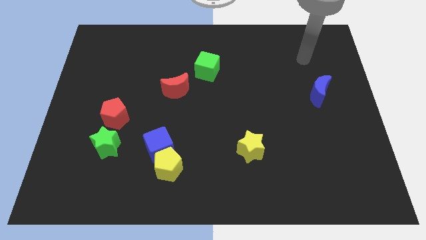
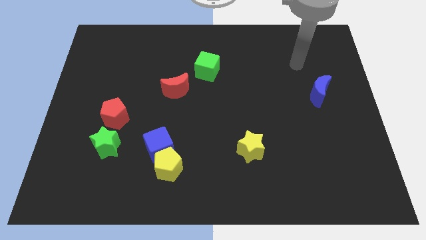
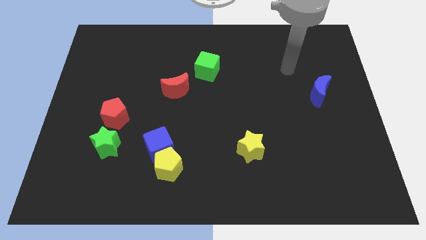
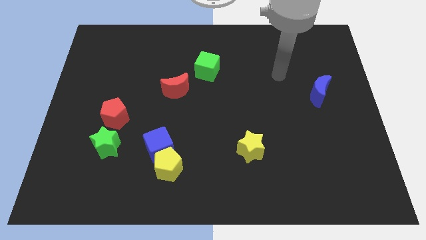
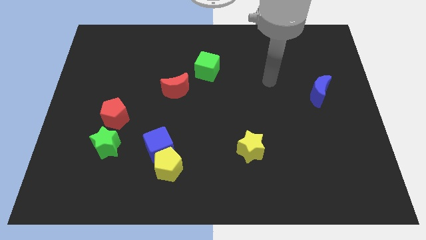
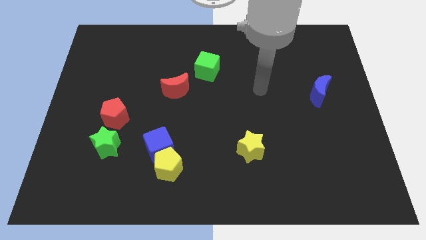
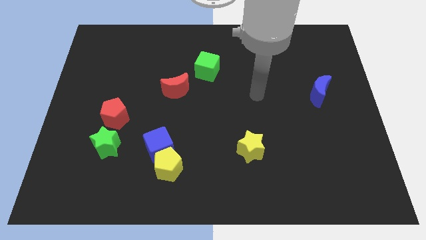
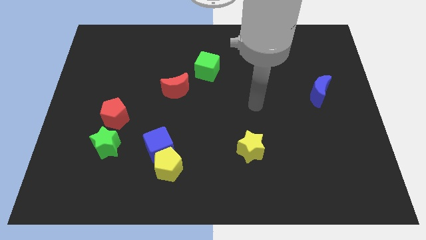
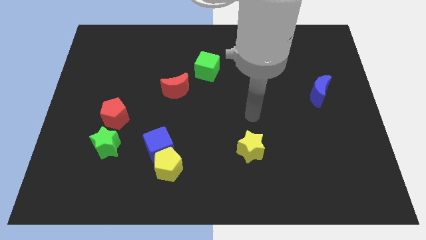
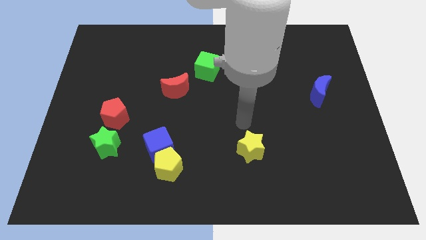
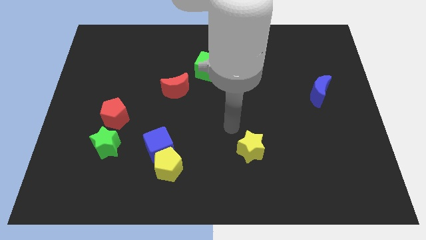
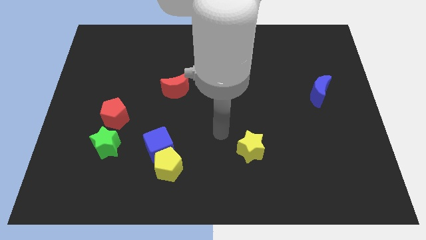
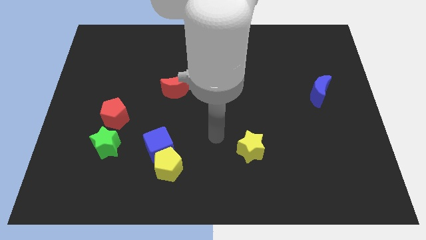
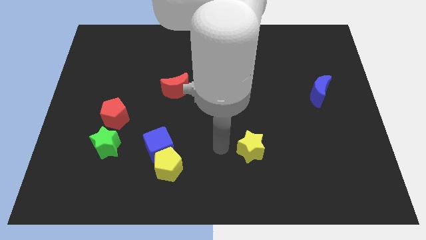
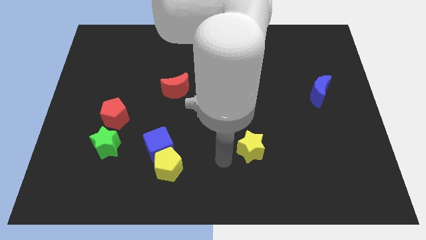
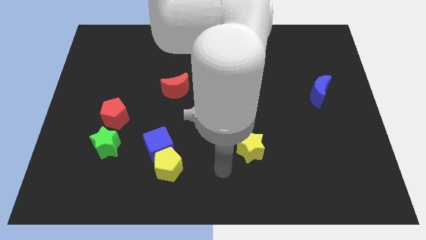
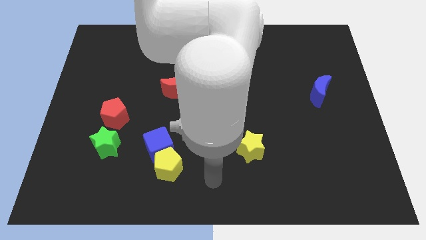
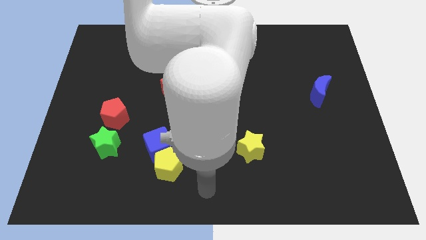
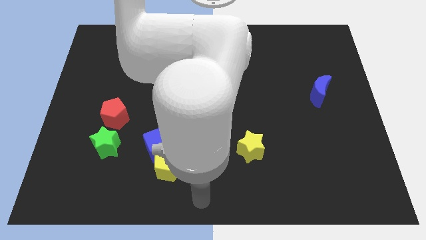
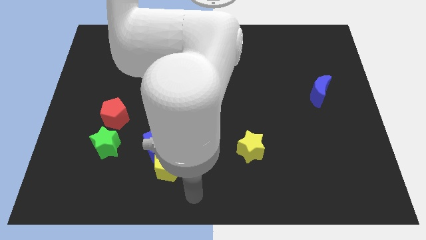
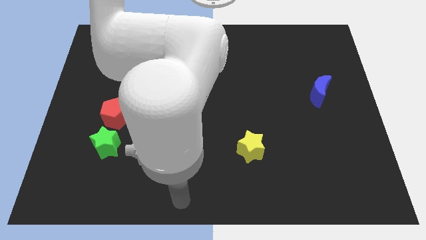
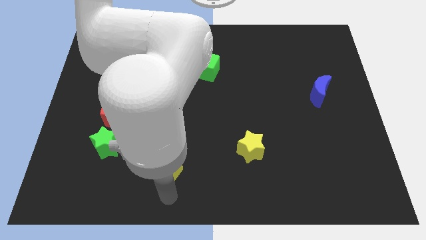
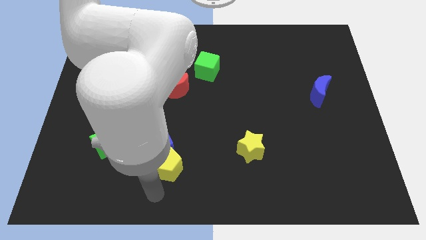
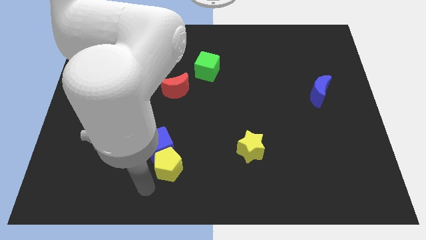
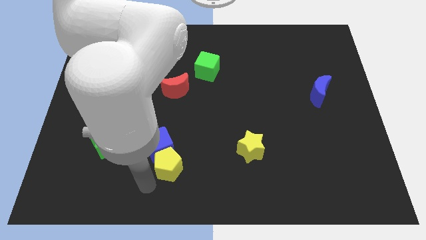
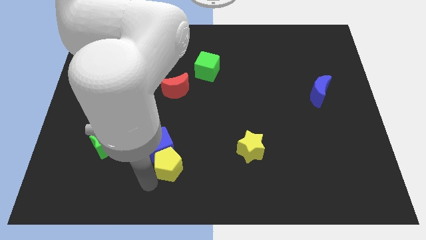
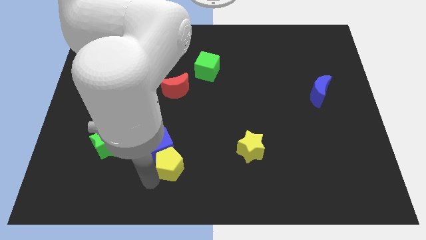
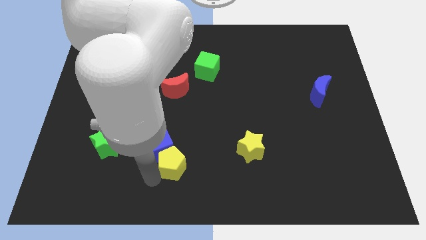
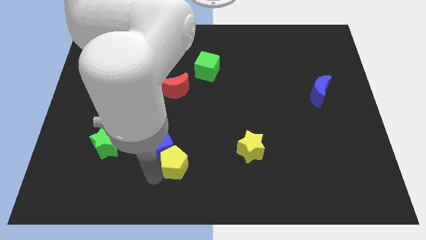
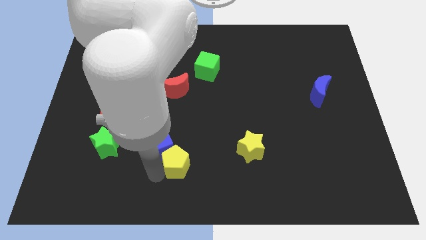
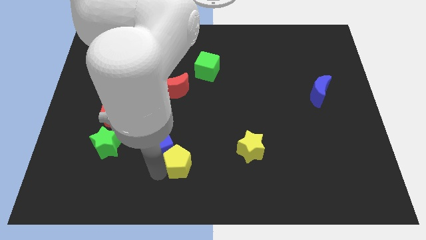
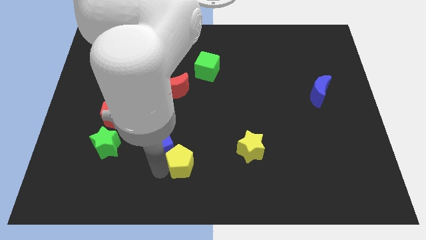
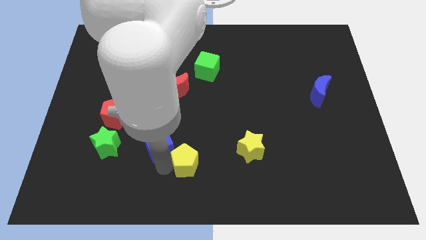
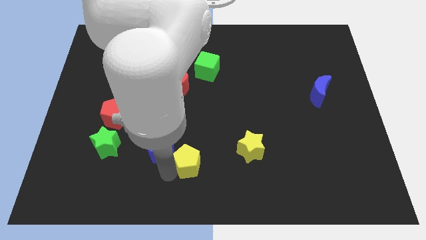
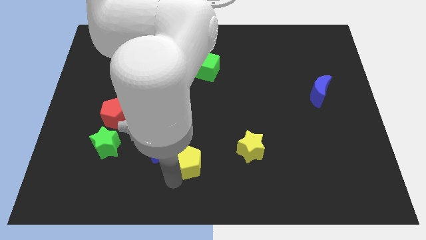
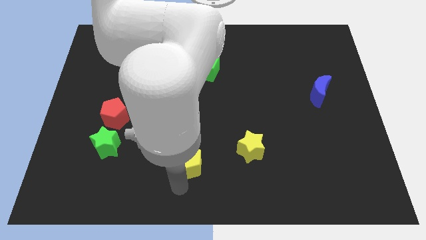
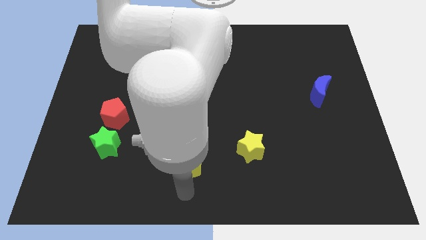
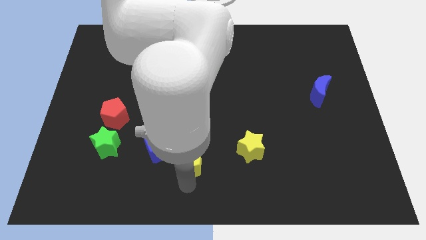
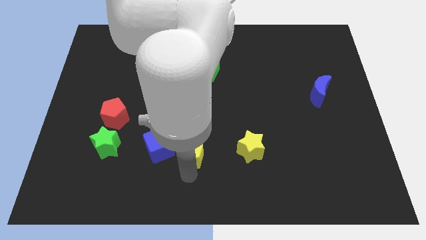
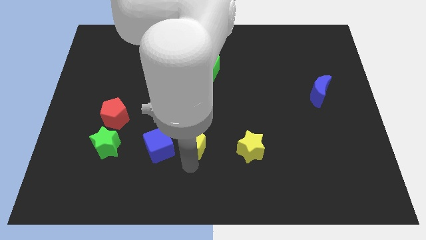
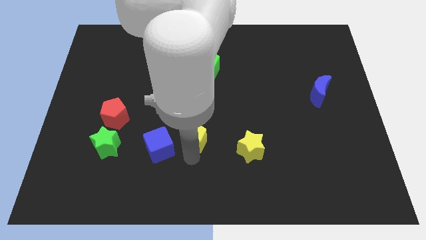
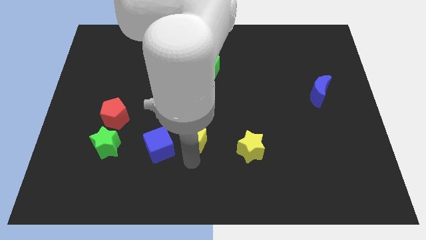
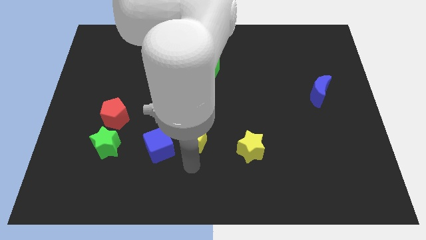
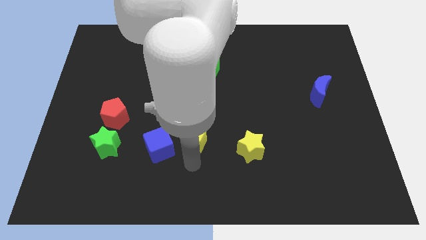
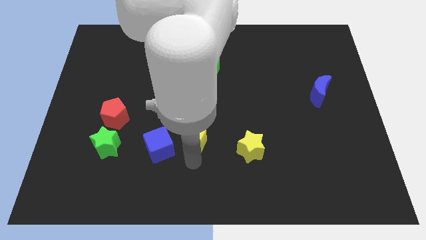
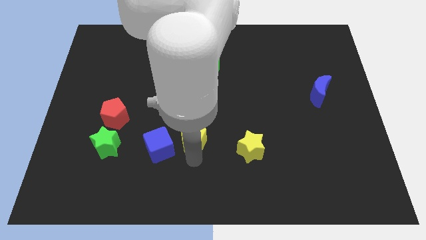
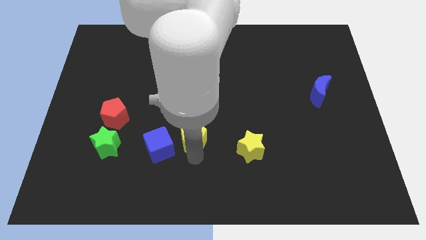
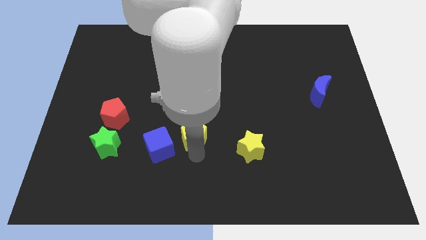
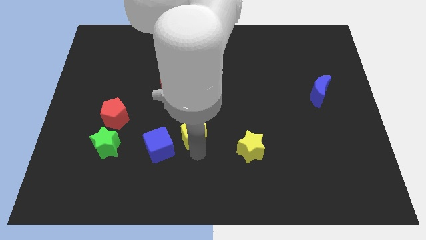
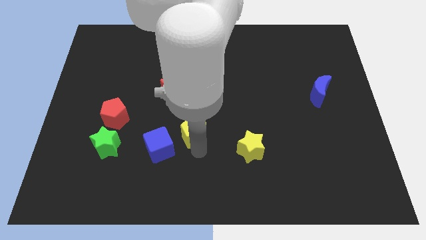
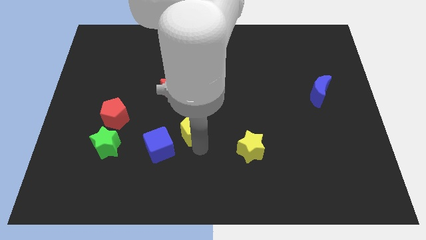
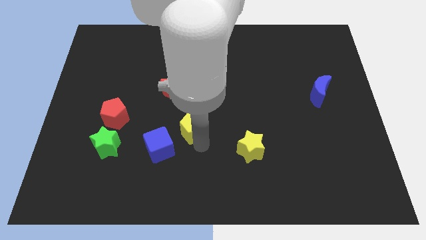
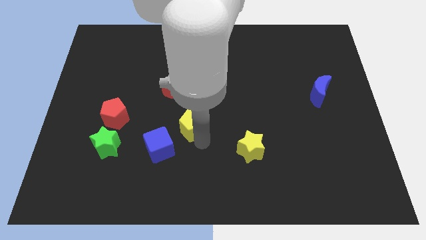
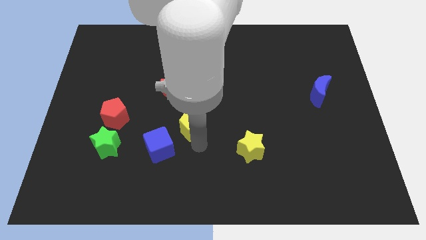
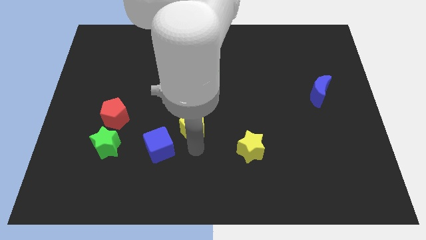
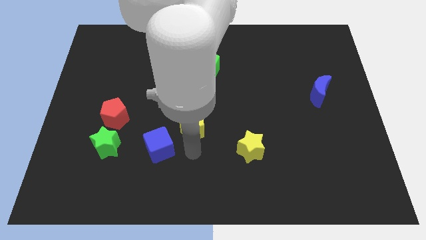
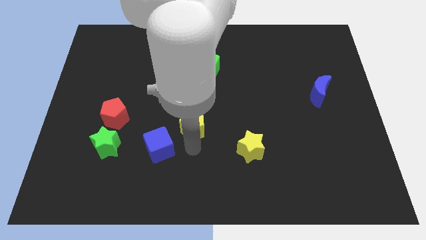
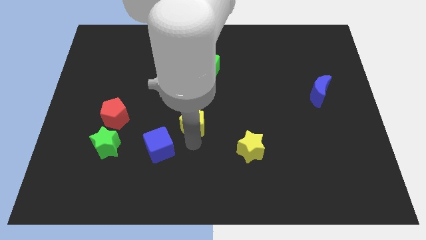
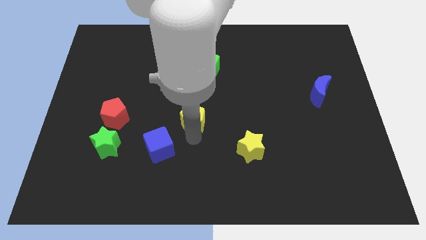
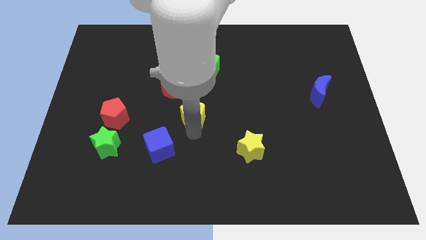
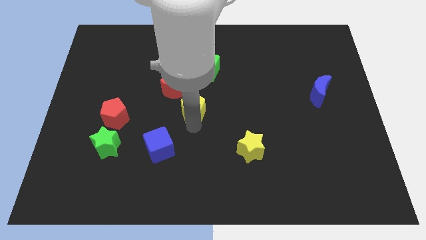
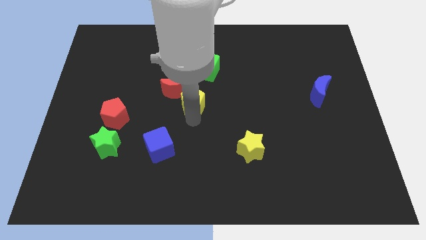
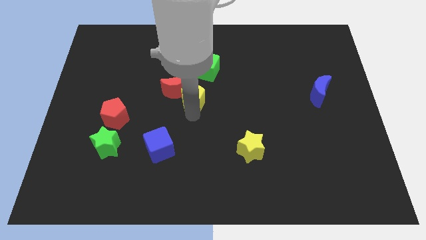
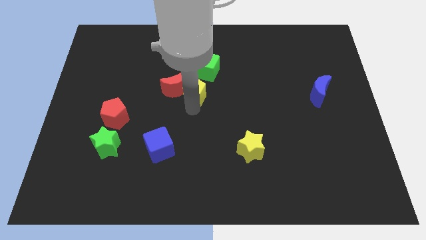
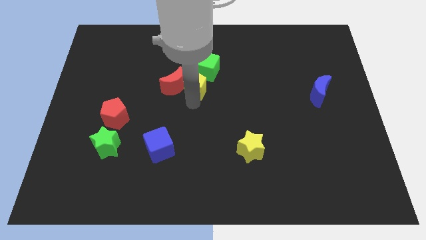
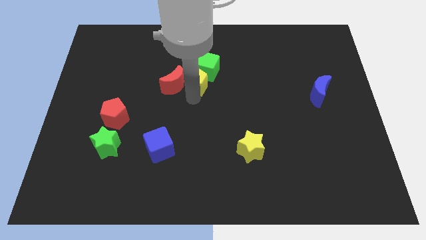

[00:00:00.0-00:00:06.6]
push the yellow pentagon to the green cube
